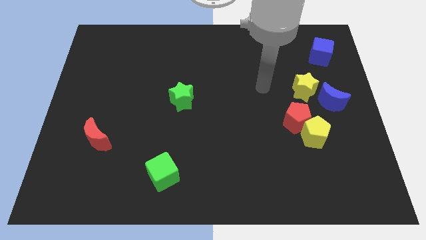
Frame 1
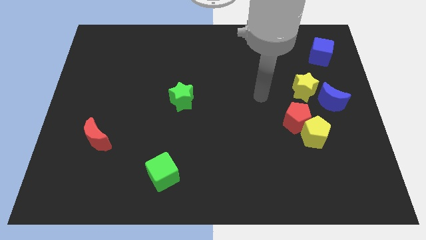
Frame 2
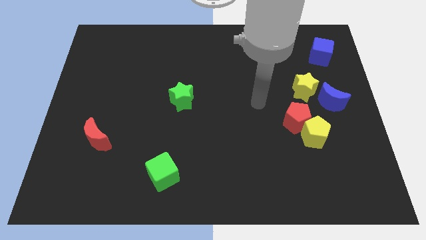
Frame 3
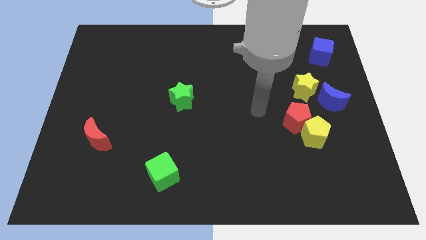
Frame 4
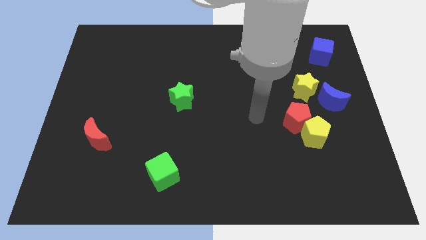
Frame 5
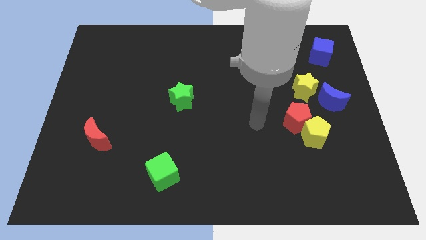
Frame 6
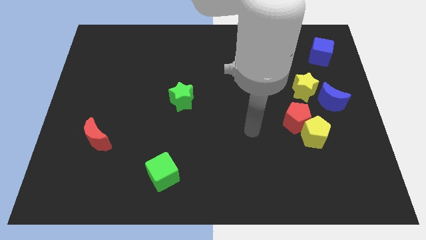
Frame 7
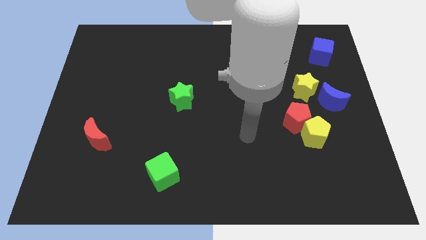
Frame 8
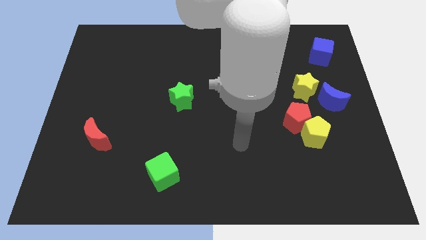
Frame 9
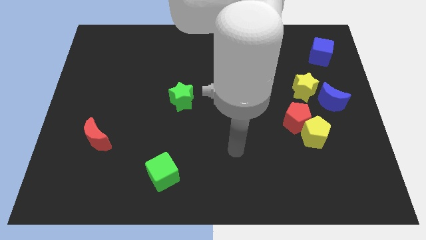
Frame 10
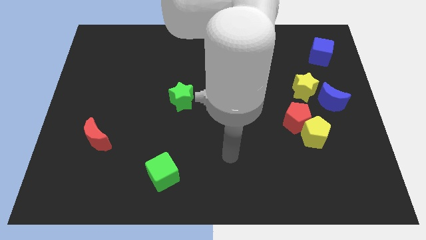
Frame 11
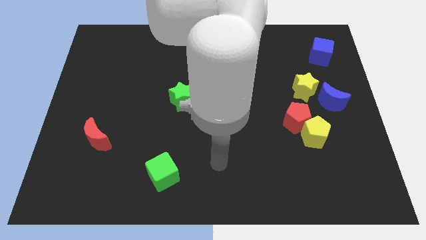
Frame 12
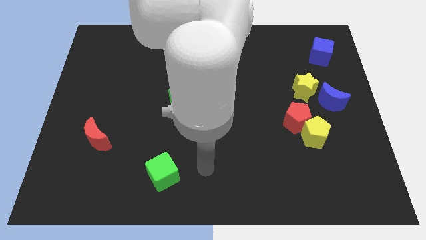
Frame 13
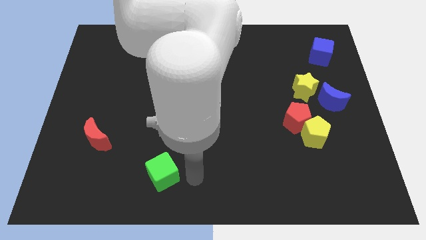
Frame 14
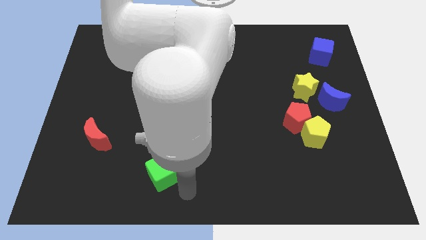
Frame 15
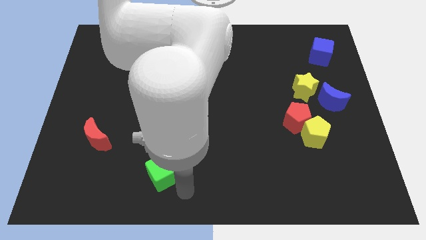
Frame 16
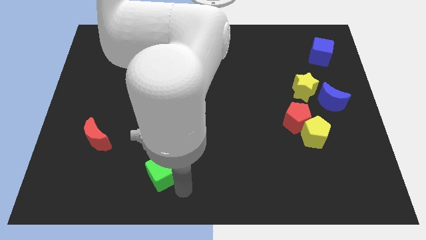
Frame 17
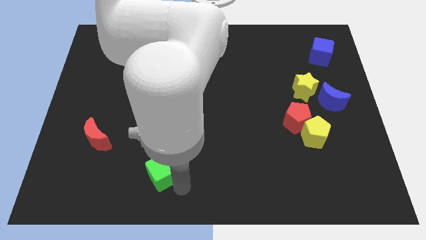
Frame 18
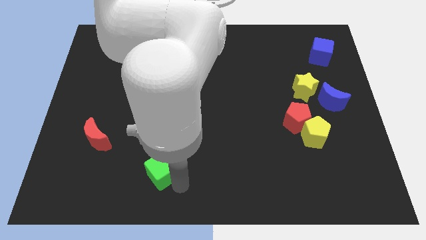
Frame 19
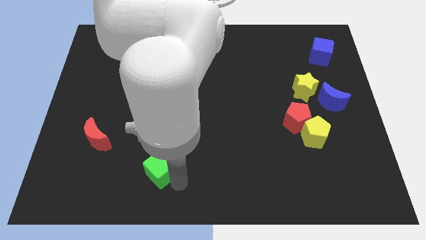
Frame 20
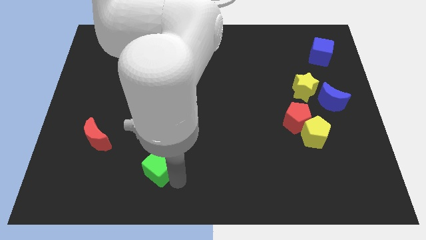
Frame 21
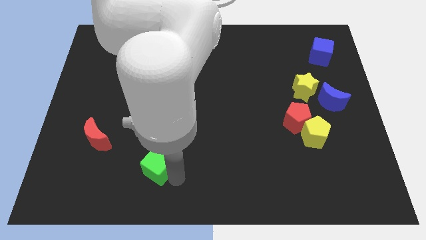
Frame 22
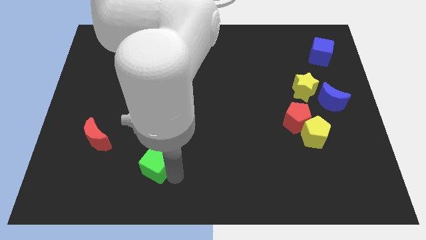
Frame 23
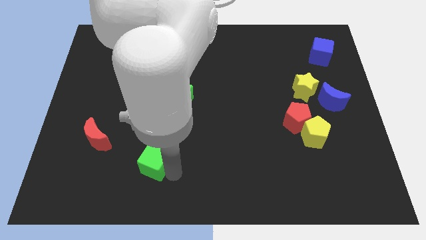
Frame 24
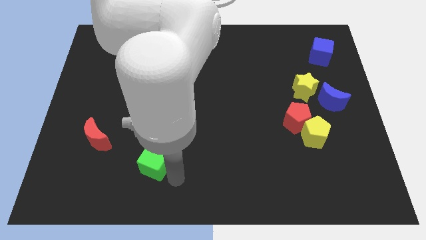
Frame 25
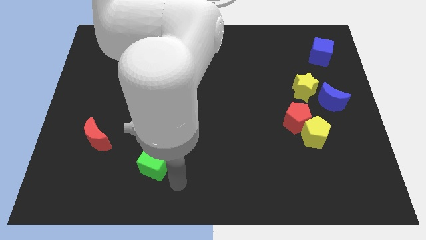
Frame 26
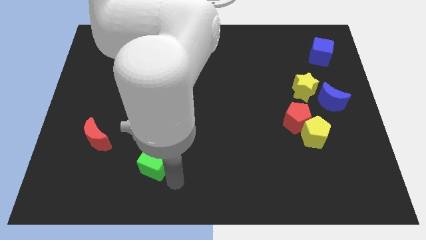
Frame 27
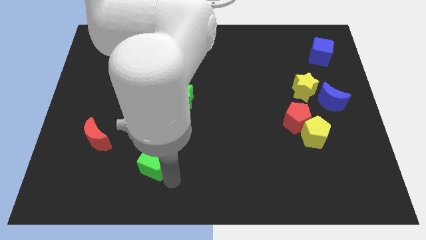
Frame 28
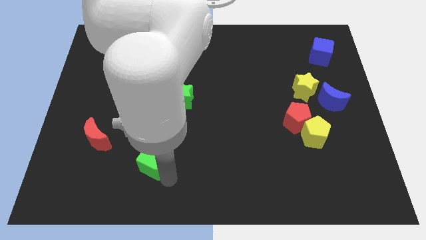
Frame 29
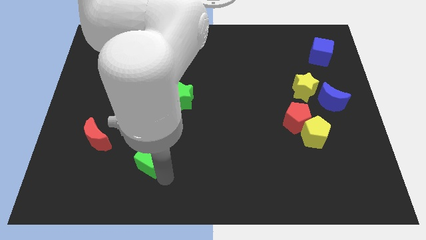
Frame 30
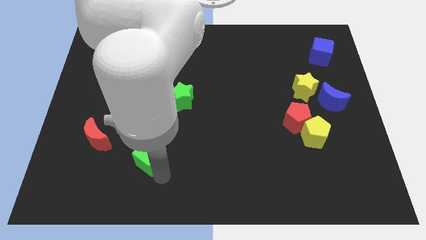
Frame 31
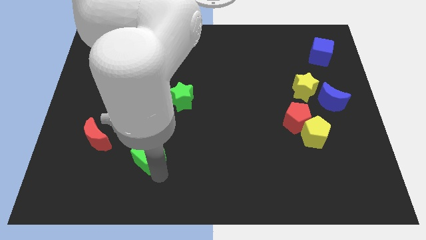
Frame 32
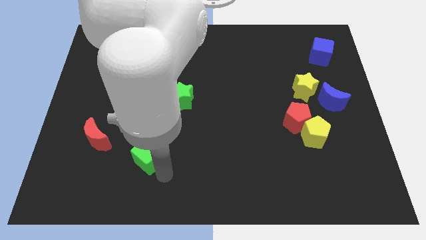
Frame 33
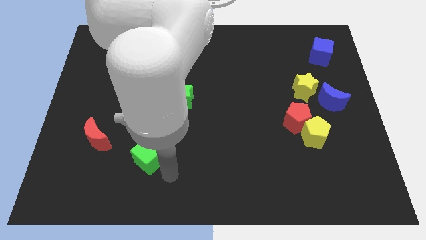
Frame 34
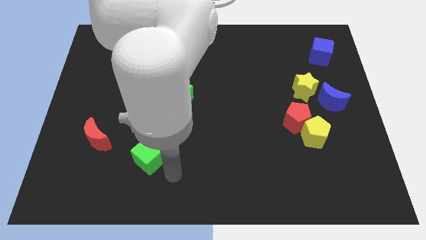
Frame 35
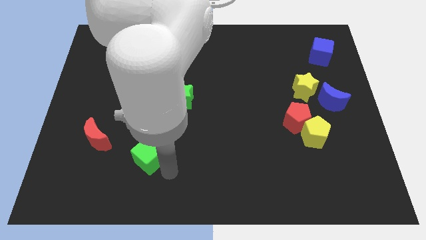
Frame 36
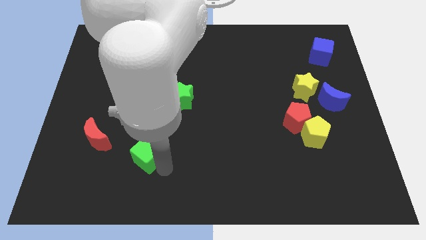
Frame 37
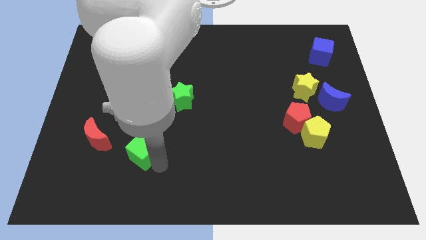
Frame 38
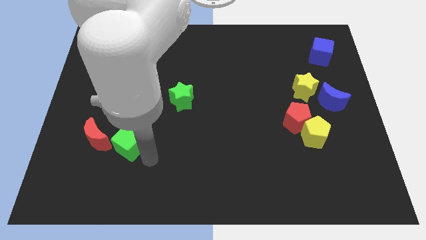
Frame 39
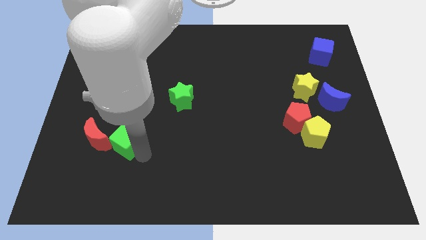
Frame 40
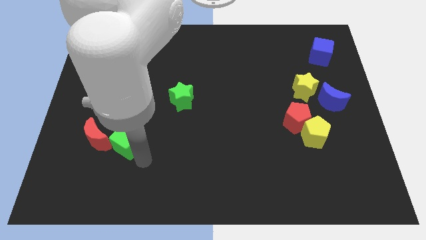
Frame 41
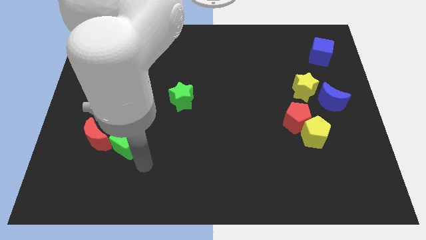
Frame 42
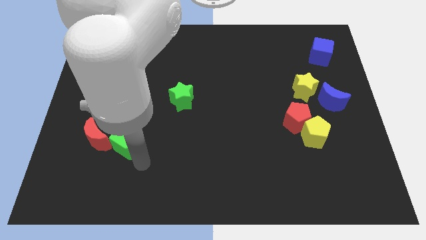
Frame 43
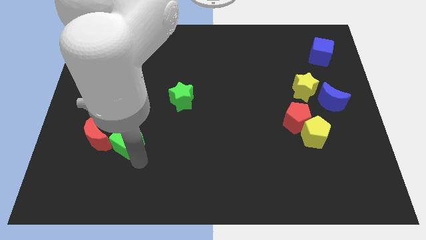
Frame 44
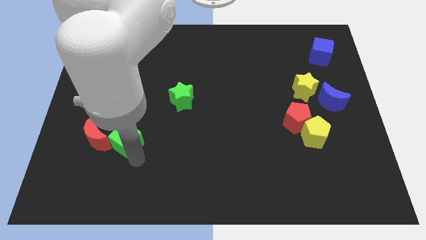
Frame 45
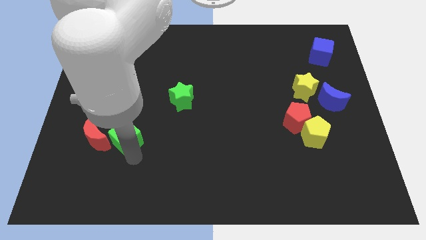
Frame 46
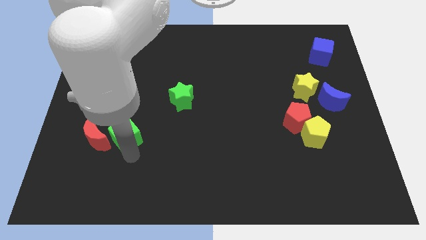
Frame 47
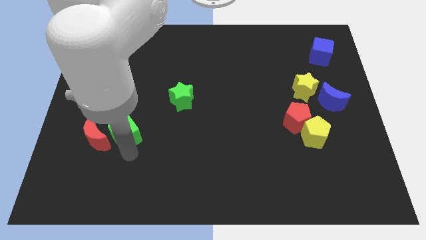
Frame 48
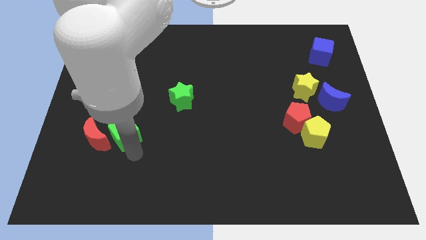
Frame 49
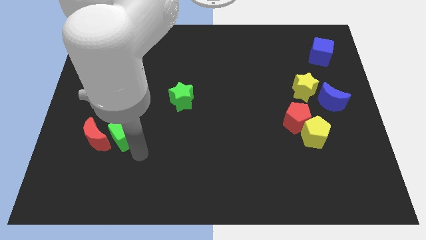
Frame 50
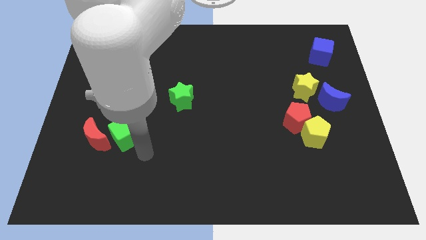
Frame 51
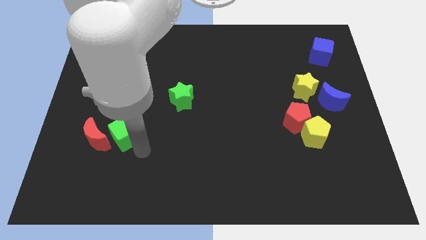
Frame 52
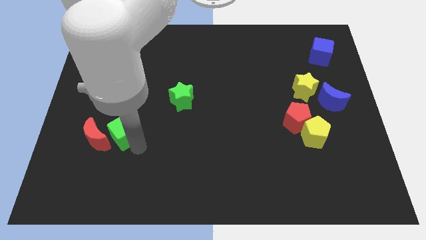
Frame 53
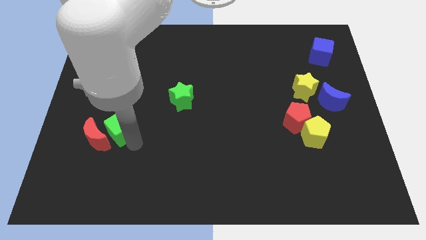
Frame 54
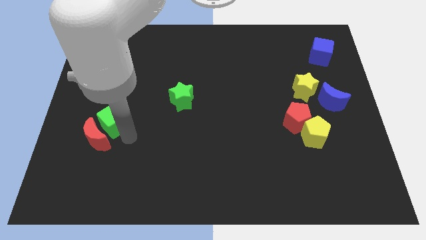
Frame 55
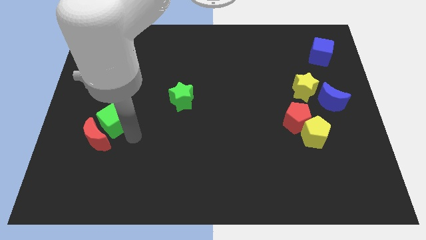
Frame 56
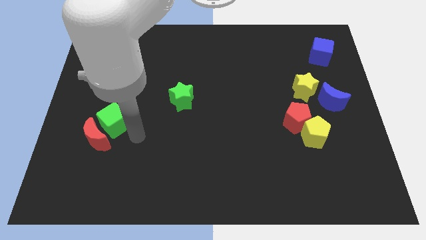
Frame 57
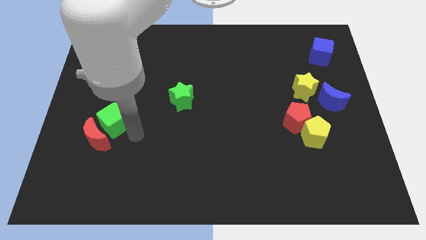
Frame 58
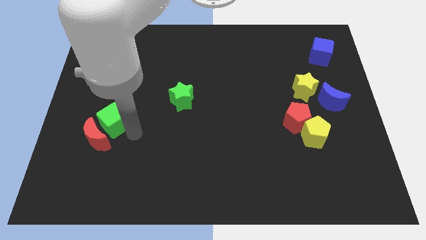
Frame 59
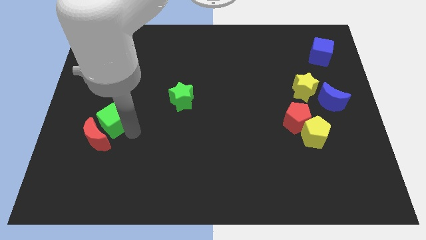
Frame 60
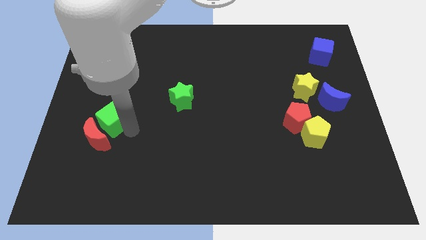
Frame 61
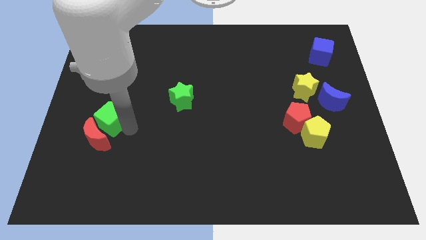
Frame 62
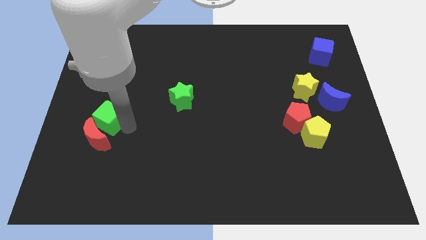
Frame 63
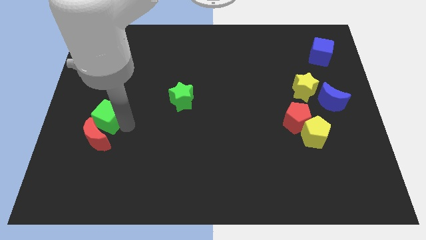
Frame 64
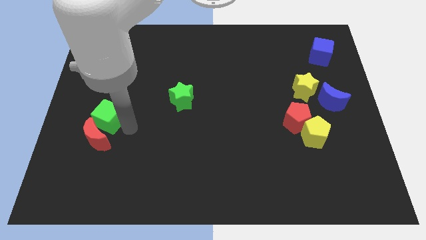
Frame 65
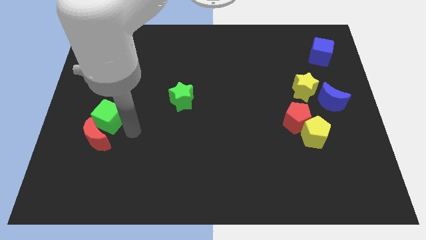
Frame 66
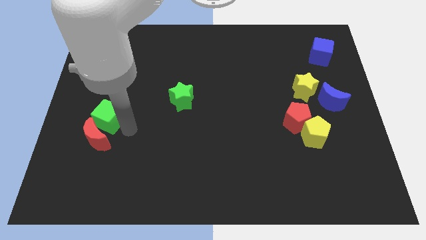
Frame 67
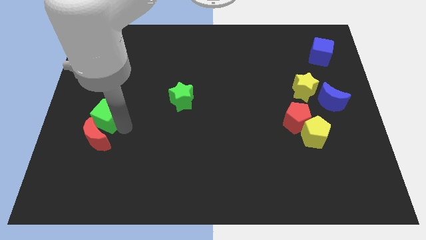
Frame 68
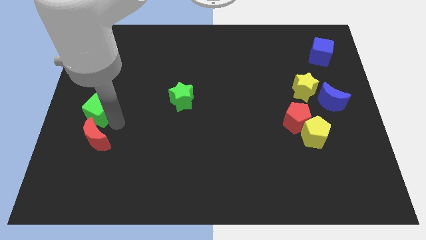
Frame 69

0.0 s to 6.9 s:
move the green cube to the left side of the board
